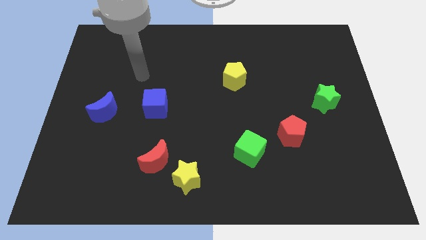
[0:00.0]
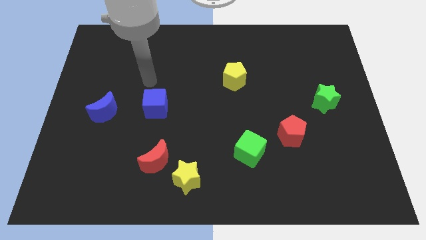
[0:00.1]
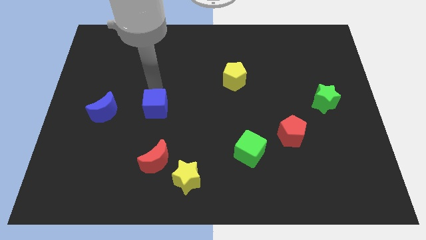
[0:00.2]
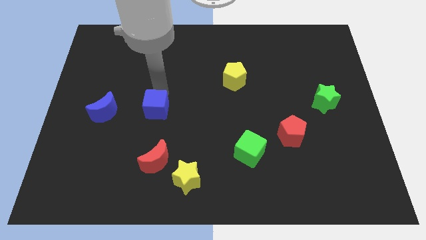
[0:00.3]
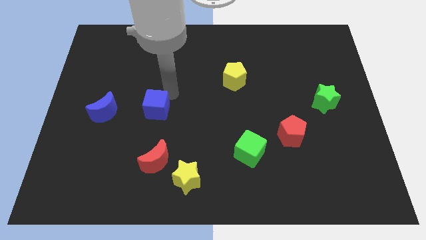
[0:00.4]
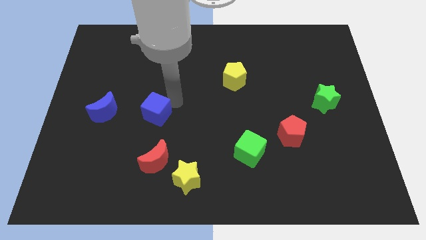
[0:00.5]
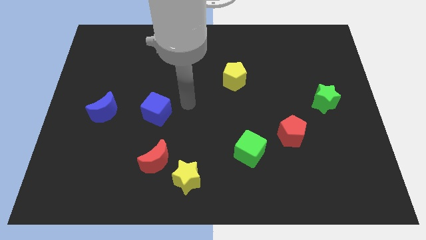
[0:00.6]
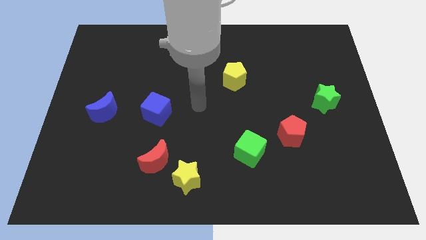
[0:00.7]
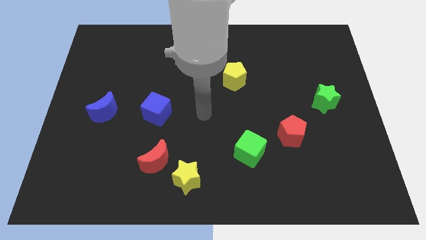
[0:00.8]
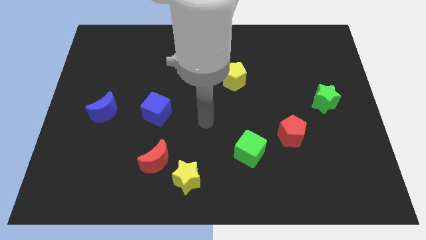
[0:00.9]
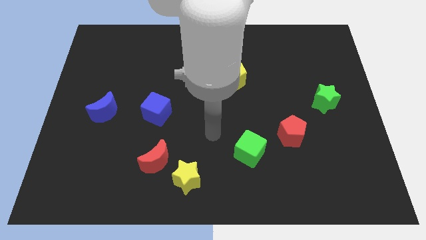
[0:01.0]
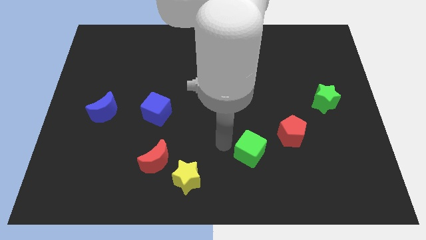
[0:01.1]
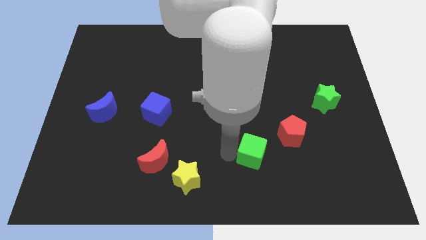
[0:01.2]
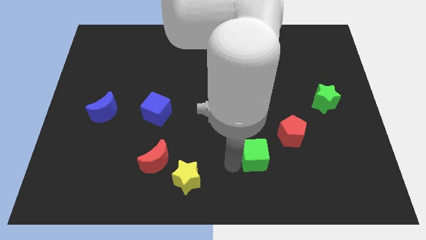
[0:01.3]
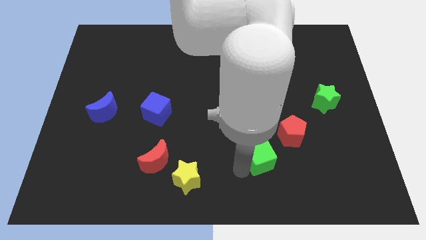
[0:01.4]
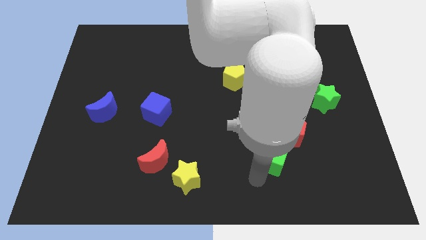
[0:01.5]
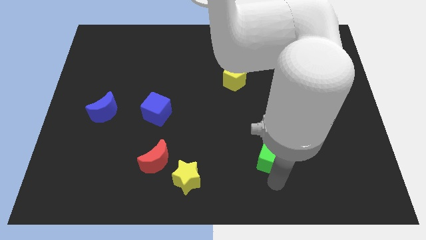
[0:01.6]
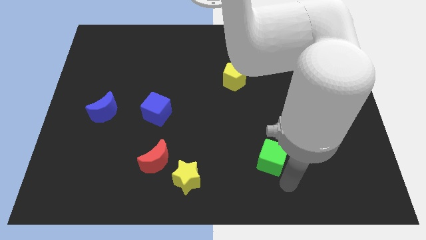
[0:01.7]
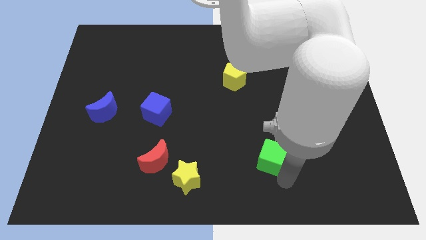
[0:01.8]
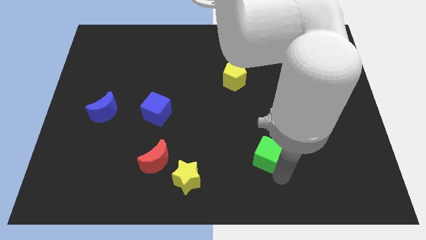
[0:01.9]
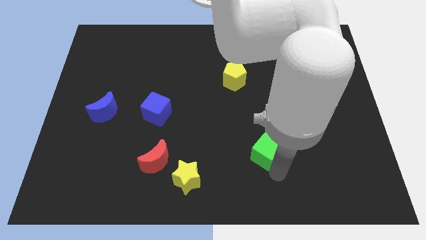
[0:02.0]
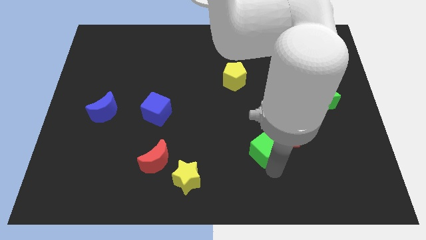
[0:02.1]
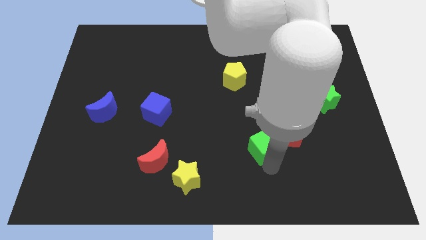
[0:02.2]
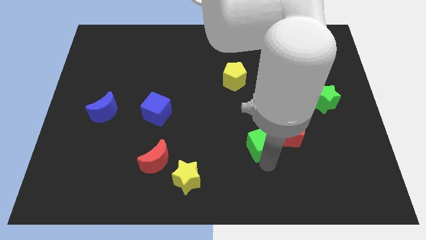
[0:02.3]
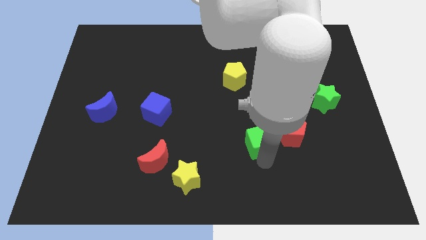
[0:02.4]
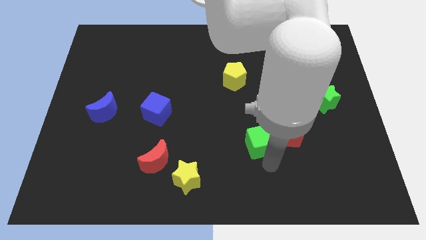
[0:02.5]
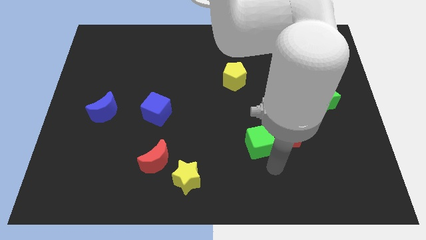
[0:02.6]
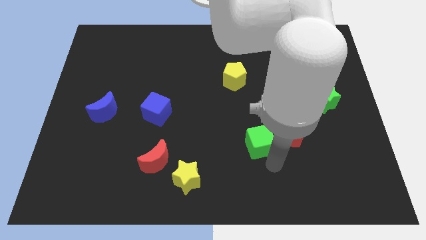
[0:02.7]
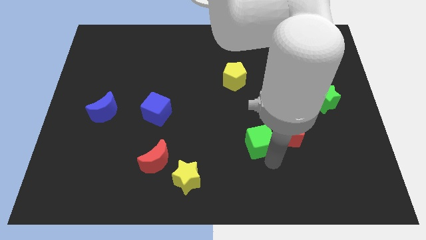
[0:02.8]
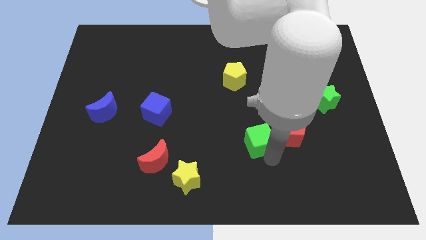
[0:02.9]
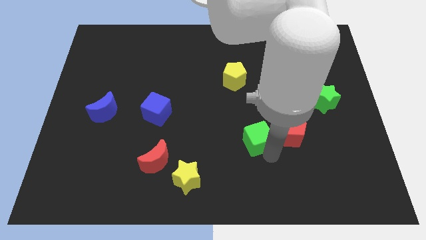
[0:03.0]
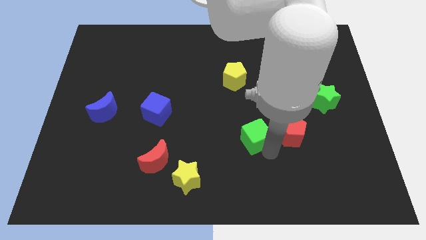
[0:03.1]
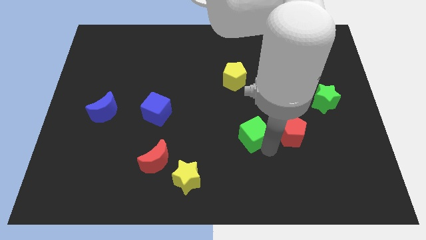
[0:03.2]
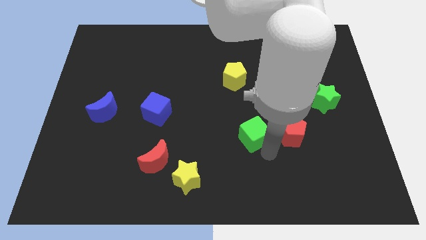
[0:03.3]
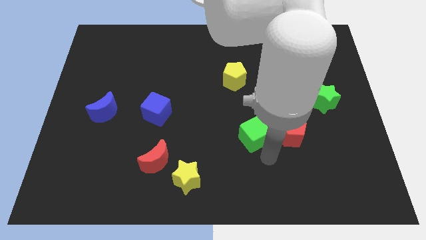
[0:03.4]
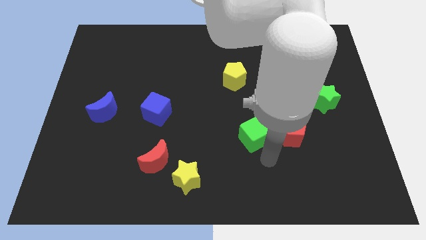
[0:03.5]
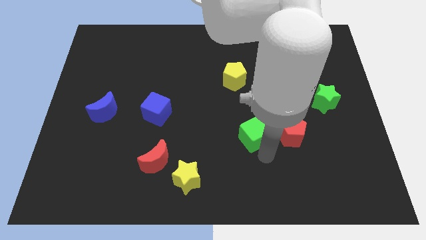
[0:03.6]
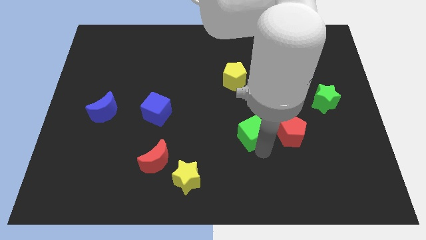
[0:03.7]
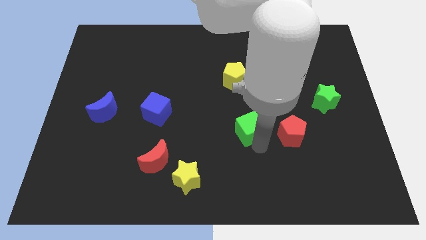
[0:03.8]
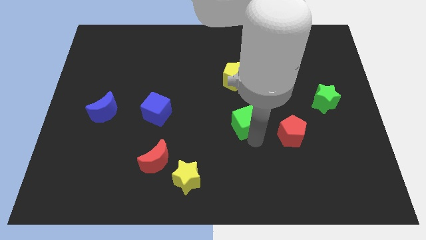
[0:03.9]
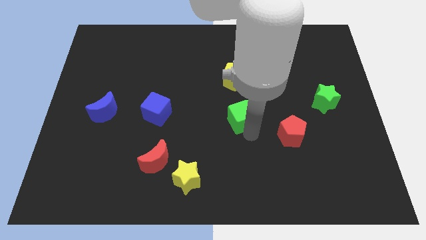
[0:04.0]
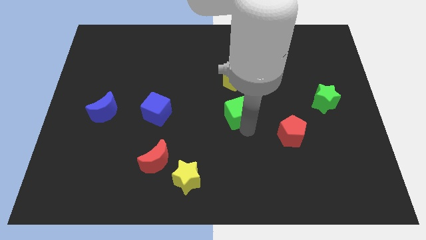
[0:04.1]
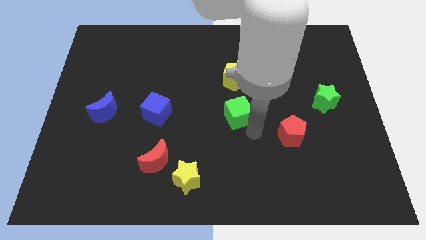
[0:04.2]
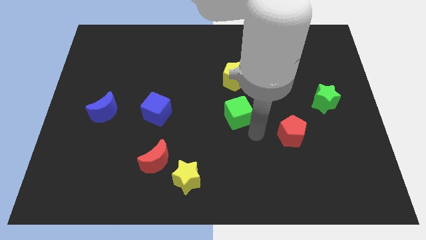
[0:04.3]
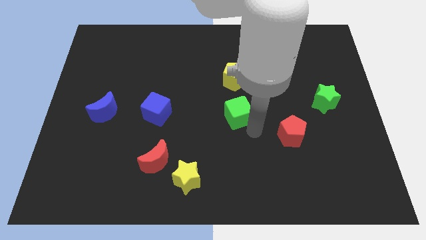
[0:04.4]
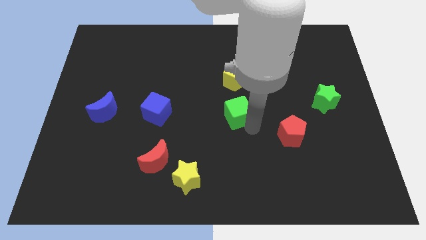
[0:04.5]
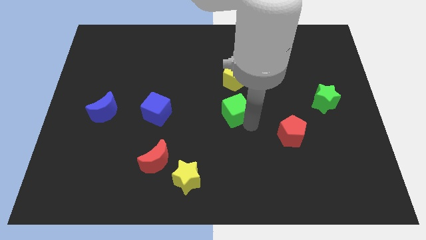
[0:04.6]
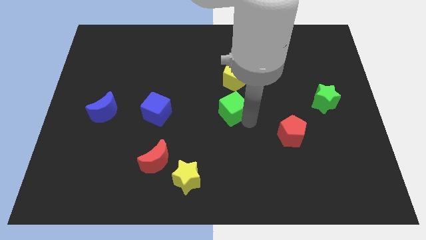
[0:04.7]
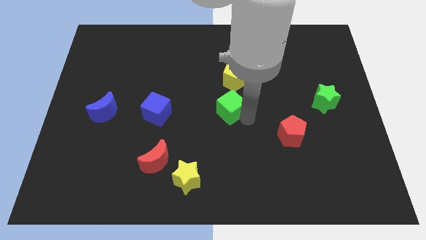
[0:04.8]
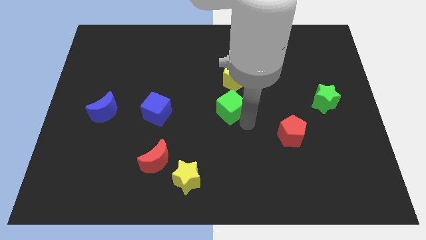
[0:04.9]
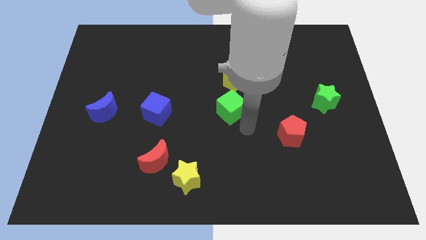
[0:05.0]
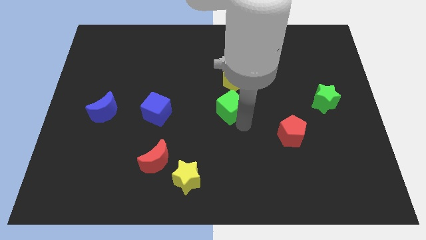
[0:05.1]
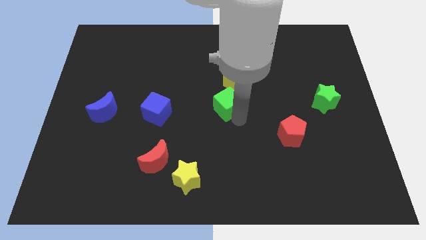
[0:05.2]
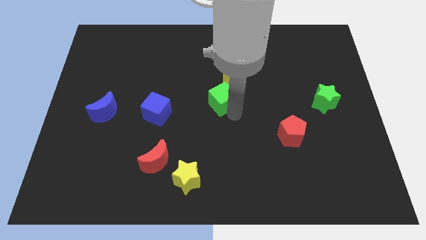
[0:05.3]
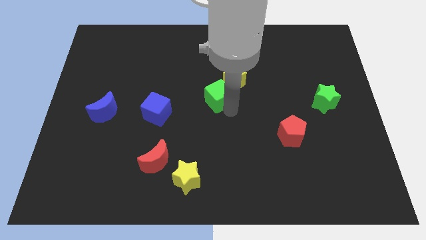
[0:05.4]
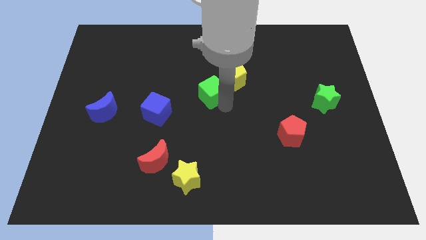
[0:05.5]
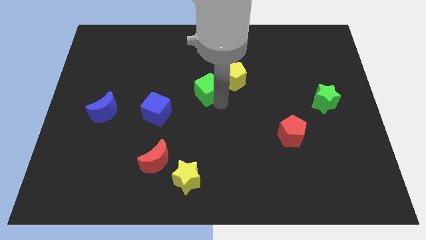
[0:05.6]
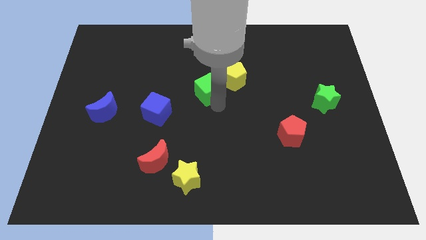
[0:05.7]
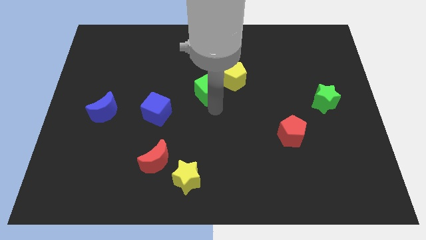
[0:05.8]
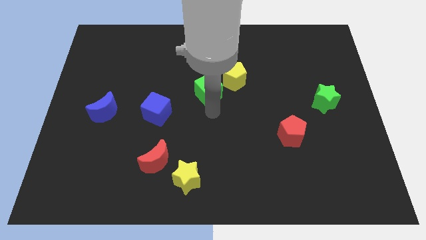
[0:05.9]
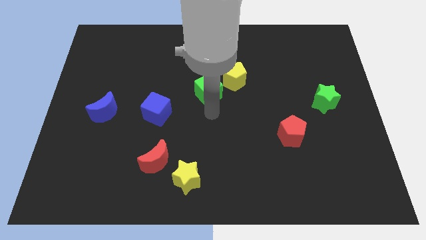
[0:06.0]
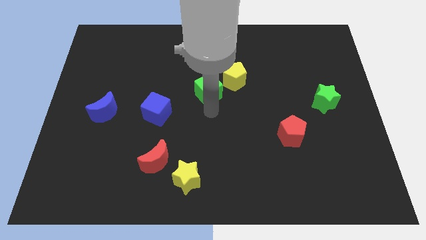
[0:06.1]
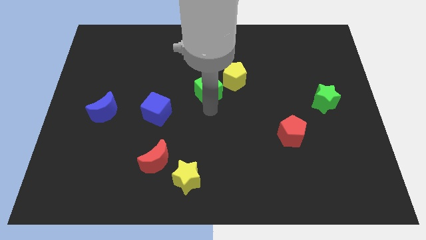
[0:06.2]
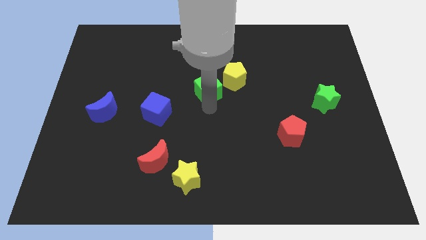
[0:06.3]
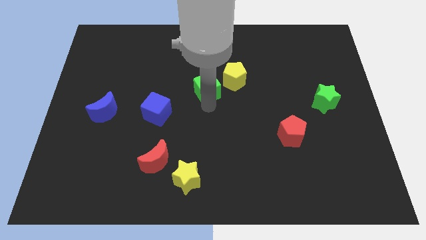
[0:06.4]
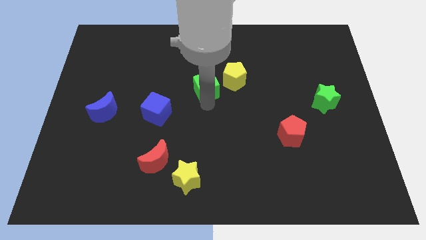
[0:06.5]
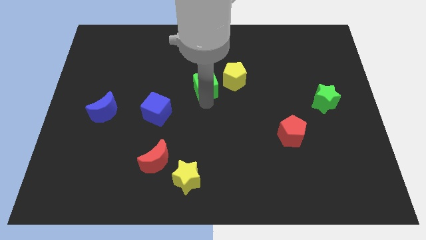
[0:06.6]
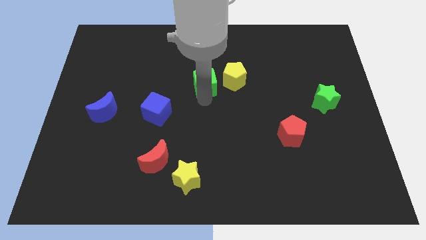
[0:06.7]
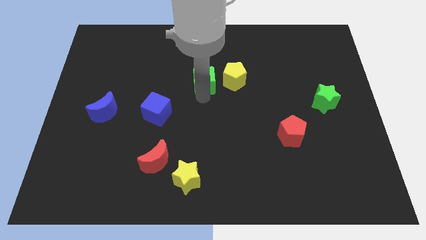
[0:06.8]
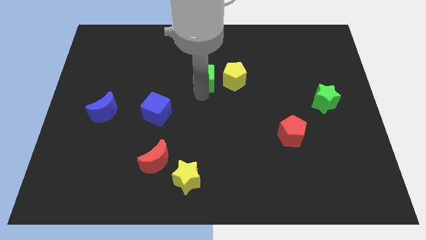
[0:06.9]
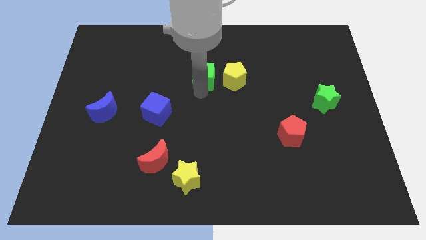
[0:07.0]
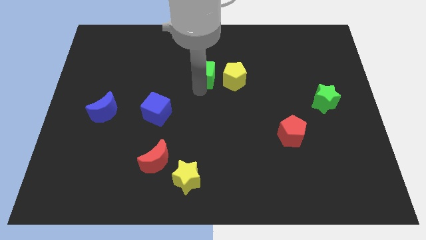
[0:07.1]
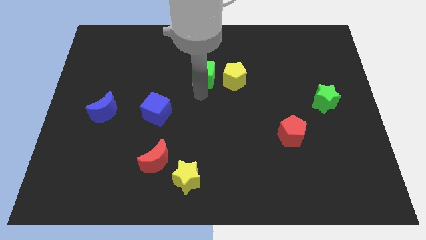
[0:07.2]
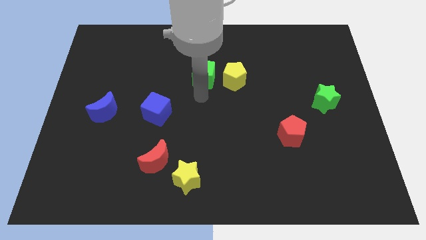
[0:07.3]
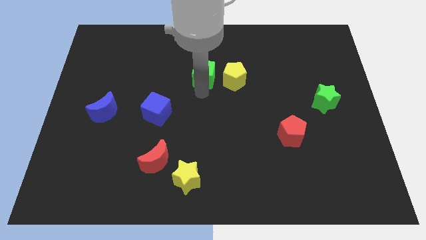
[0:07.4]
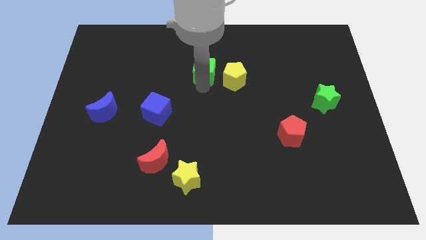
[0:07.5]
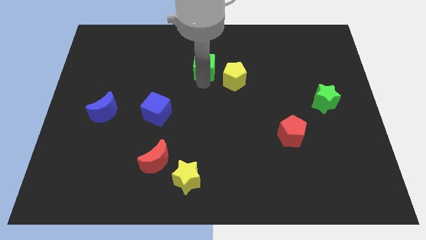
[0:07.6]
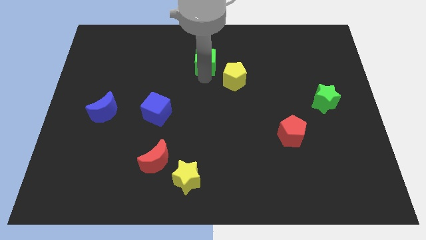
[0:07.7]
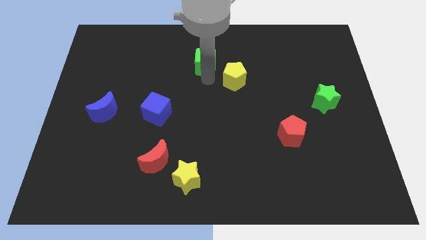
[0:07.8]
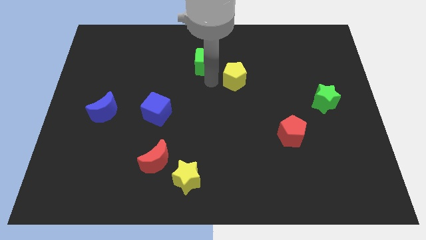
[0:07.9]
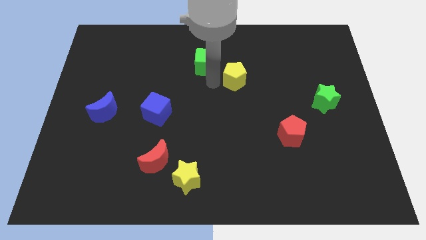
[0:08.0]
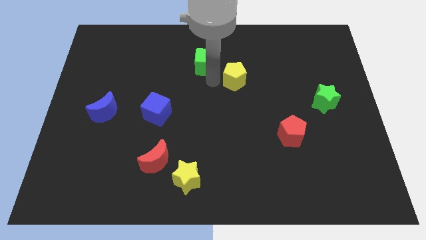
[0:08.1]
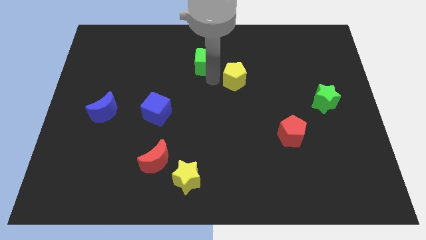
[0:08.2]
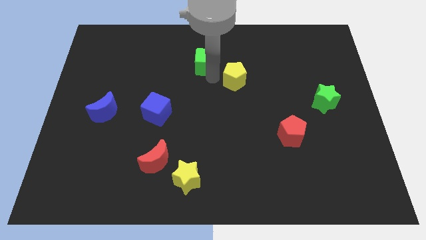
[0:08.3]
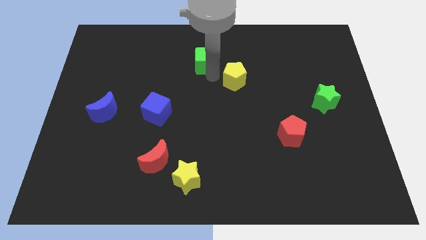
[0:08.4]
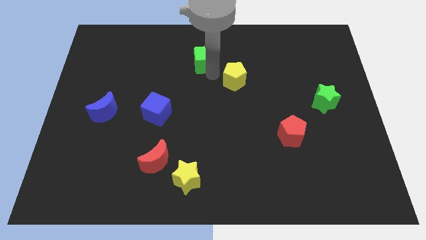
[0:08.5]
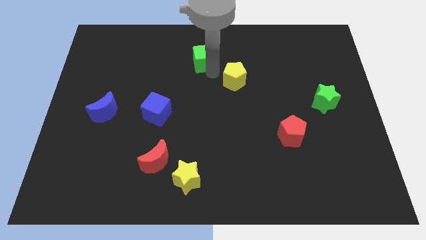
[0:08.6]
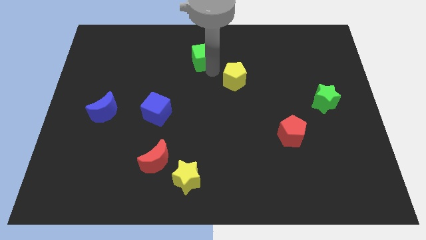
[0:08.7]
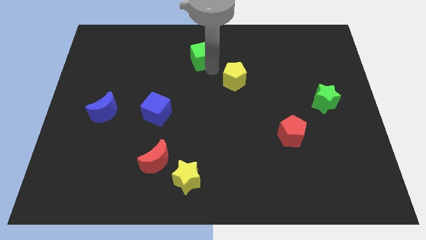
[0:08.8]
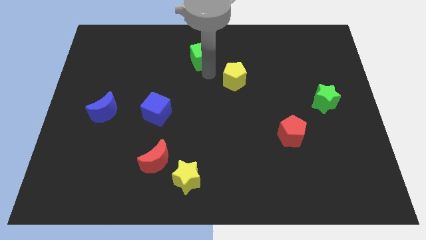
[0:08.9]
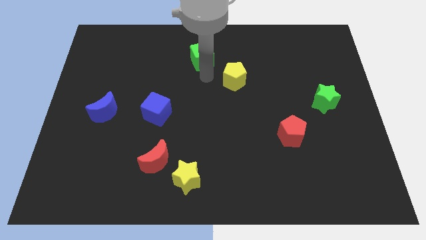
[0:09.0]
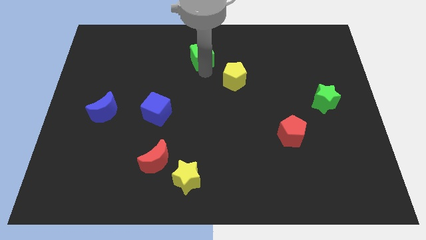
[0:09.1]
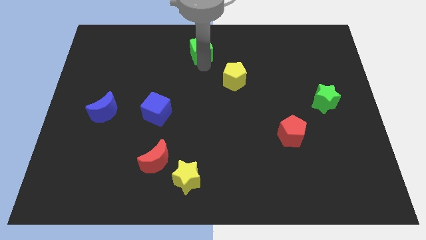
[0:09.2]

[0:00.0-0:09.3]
put the green cube to the top side
